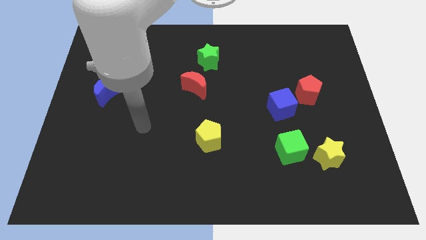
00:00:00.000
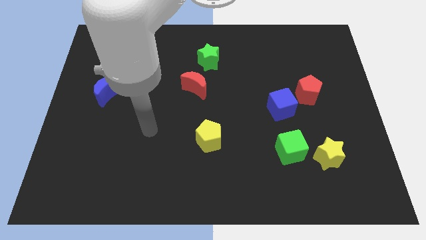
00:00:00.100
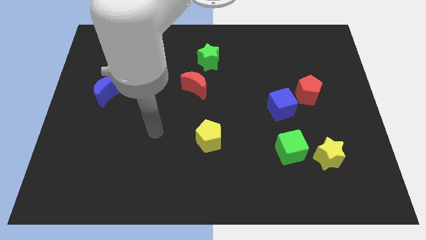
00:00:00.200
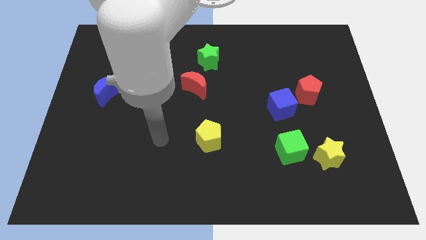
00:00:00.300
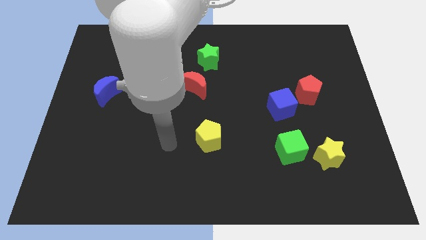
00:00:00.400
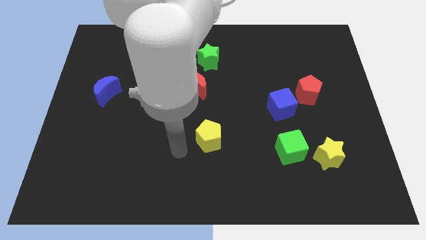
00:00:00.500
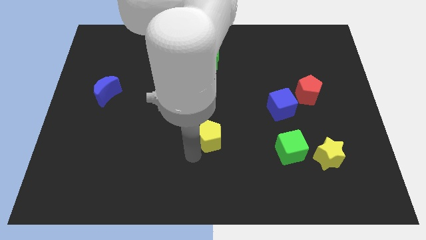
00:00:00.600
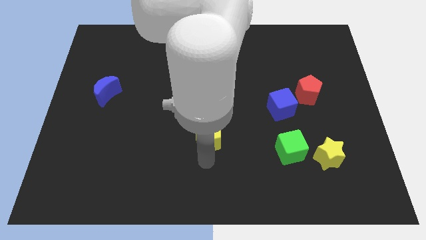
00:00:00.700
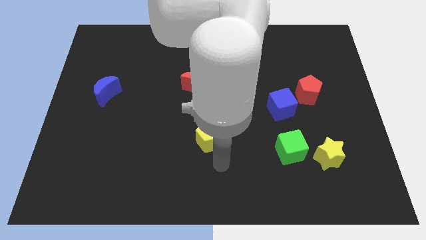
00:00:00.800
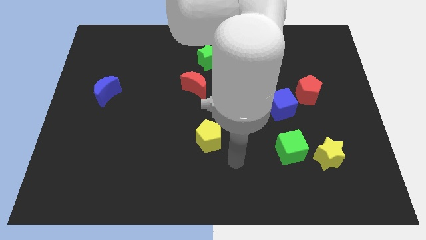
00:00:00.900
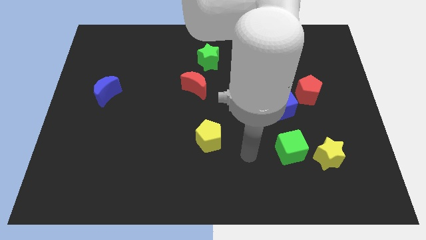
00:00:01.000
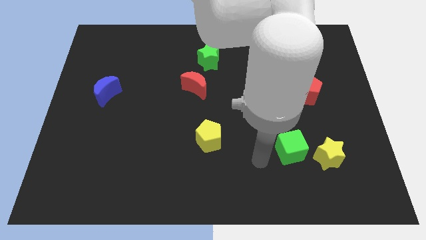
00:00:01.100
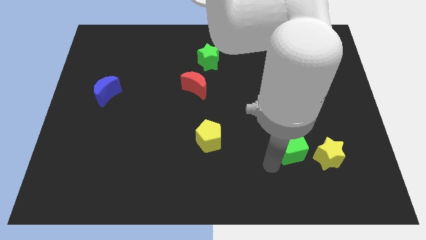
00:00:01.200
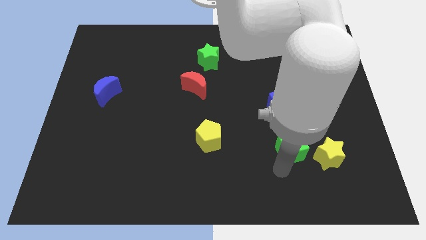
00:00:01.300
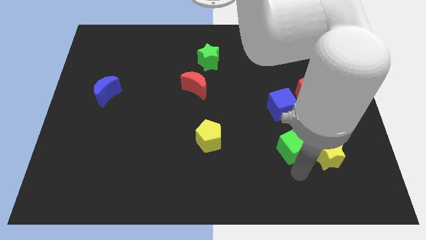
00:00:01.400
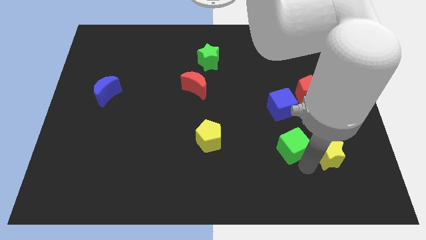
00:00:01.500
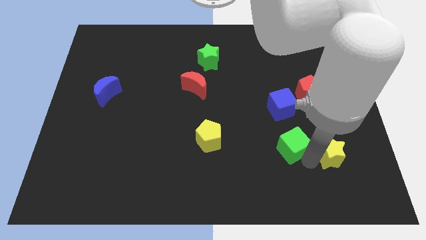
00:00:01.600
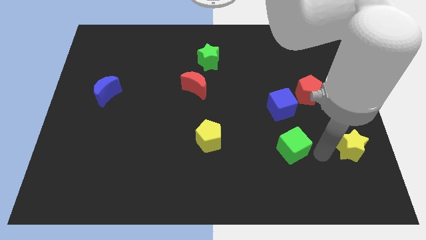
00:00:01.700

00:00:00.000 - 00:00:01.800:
move the green cube away from the yellow star

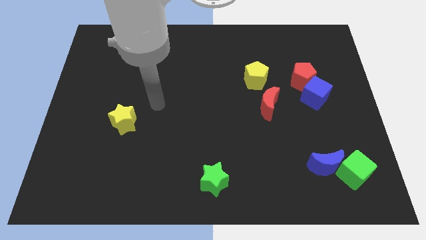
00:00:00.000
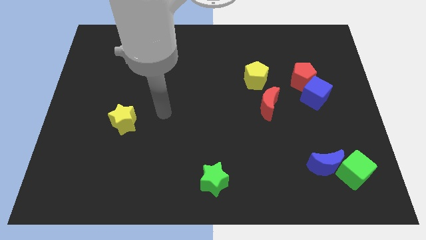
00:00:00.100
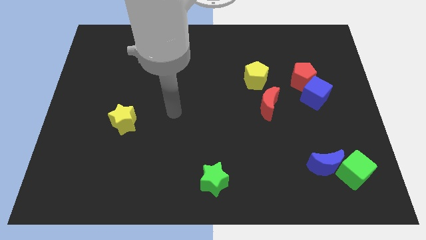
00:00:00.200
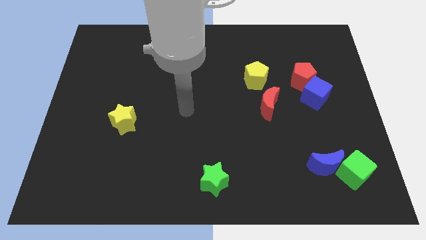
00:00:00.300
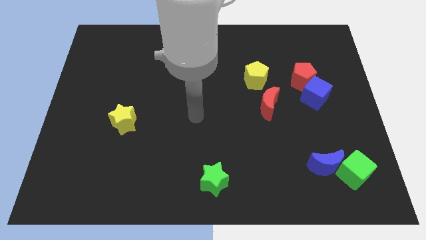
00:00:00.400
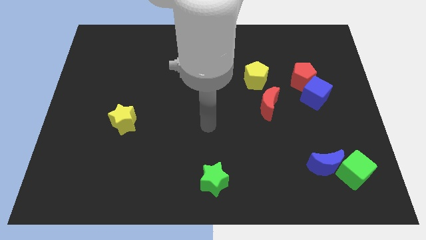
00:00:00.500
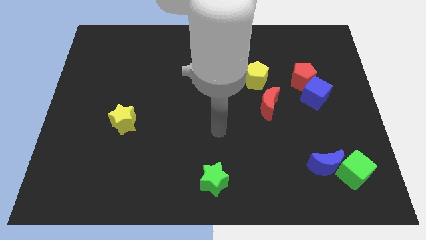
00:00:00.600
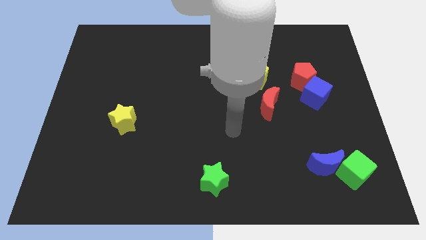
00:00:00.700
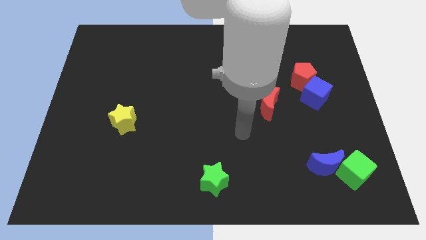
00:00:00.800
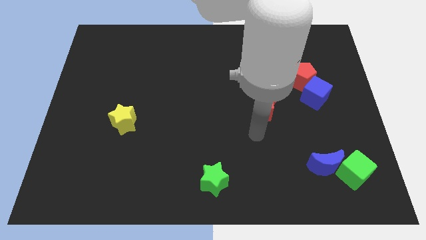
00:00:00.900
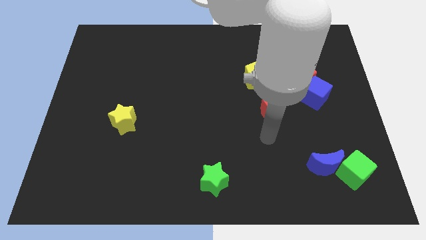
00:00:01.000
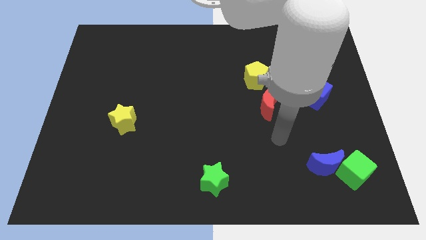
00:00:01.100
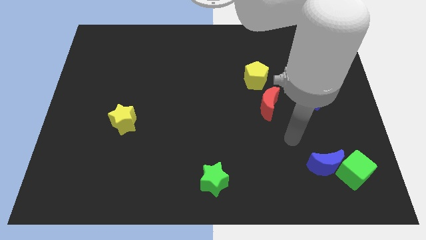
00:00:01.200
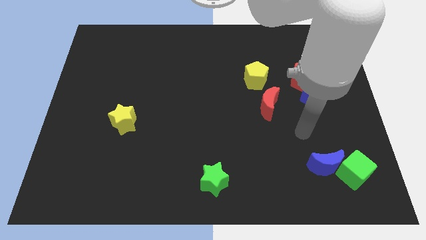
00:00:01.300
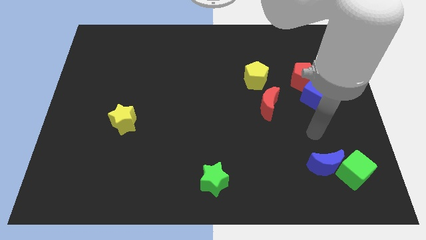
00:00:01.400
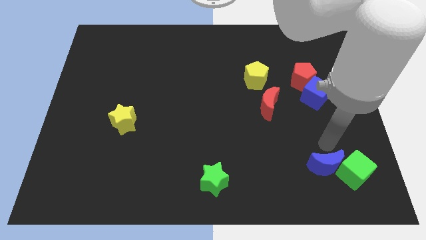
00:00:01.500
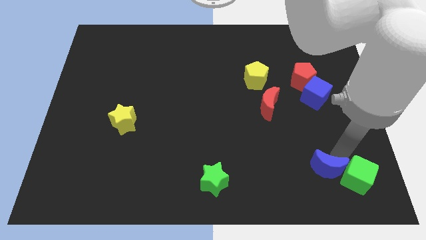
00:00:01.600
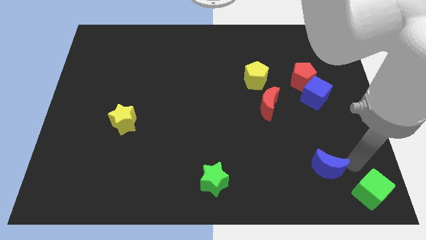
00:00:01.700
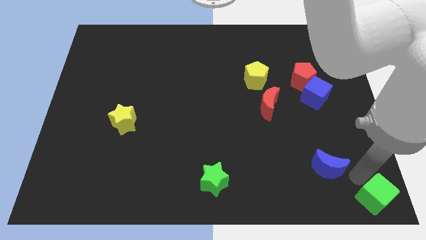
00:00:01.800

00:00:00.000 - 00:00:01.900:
separate the blue moon from the green cube

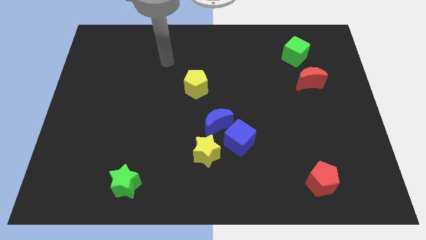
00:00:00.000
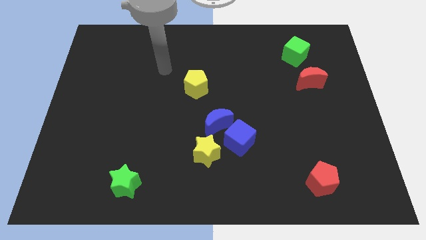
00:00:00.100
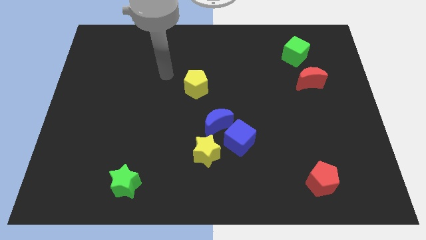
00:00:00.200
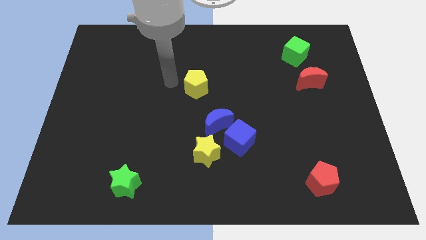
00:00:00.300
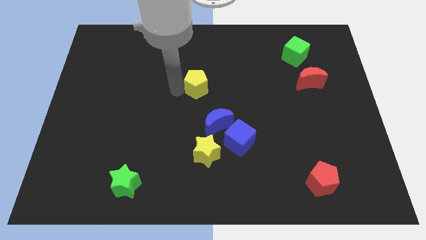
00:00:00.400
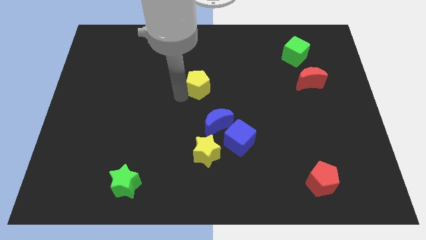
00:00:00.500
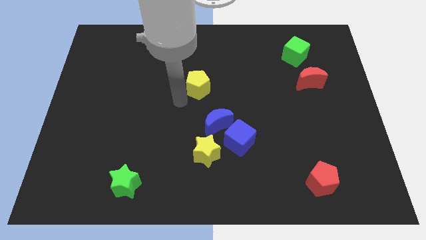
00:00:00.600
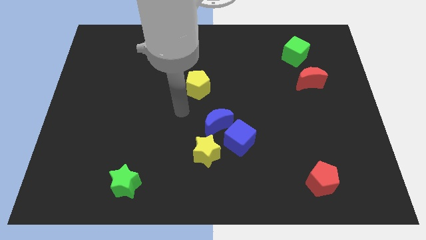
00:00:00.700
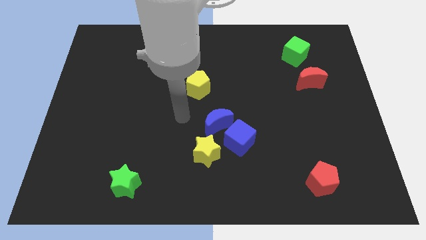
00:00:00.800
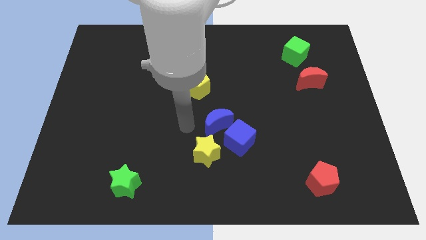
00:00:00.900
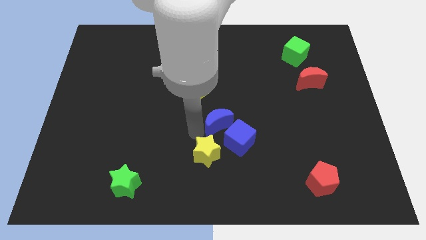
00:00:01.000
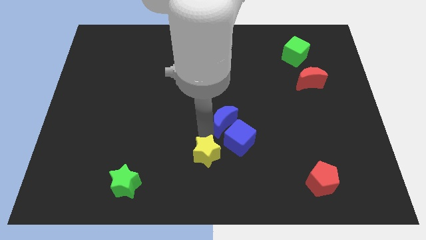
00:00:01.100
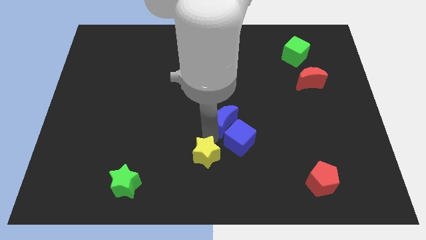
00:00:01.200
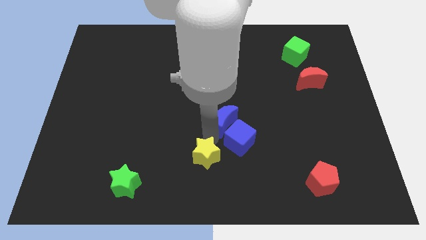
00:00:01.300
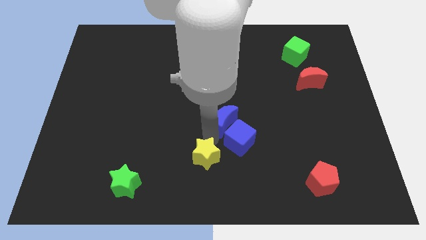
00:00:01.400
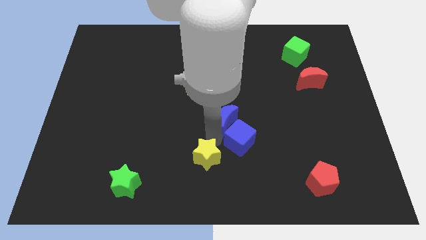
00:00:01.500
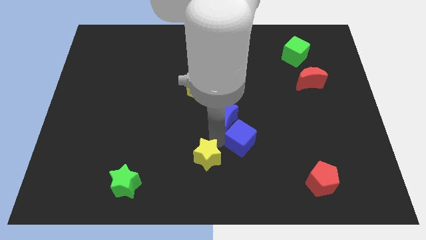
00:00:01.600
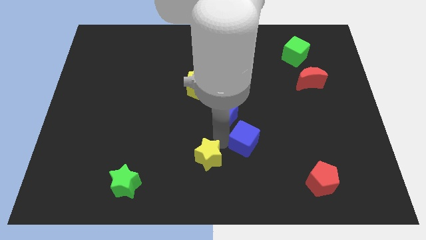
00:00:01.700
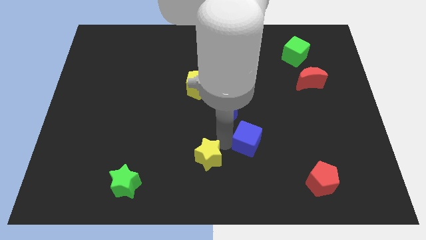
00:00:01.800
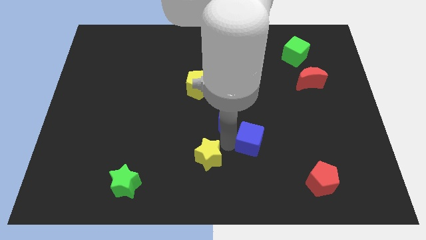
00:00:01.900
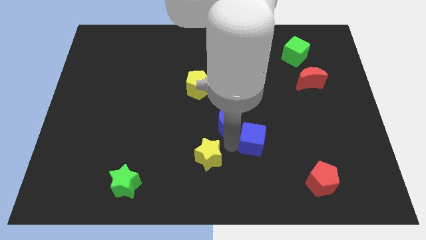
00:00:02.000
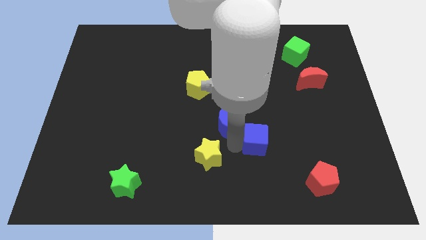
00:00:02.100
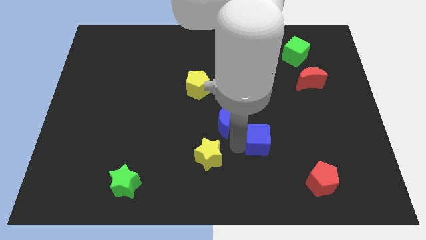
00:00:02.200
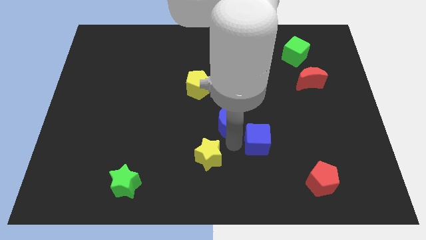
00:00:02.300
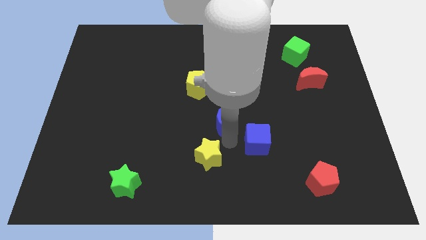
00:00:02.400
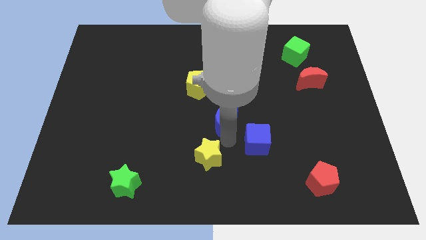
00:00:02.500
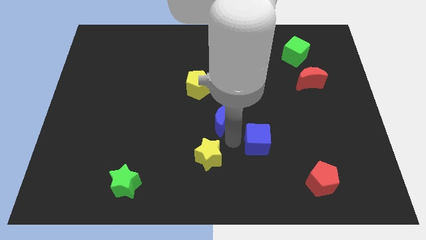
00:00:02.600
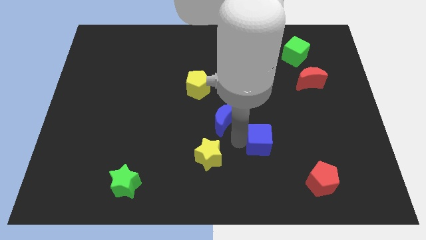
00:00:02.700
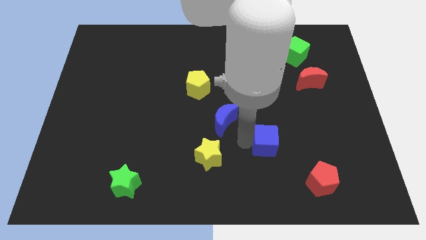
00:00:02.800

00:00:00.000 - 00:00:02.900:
separate the blue cube from the blue moon and yellow star

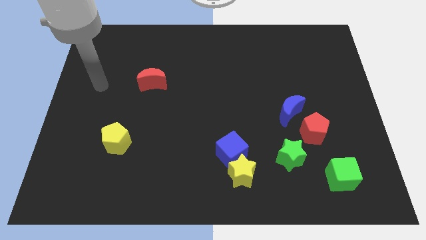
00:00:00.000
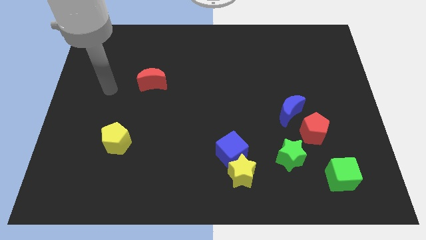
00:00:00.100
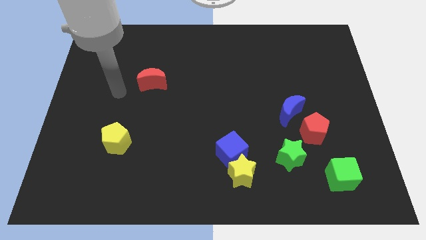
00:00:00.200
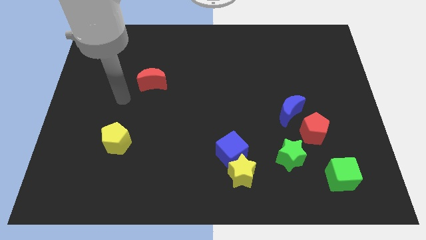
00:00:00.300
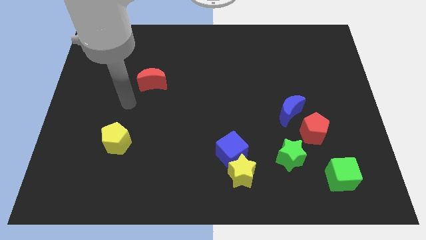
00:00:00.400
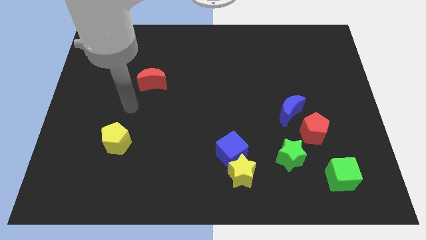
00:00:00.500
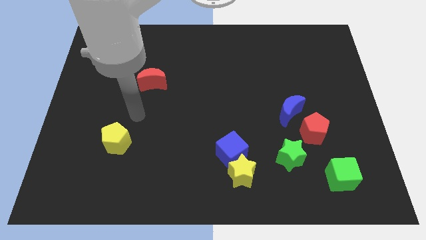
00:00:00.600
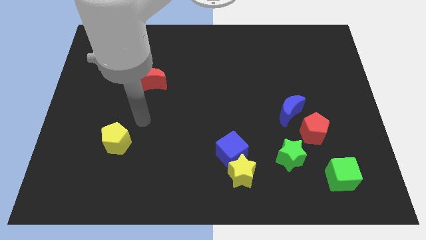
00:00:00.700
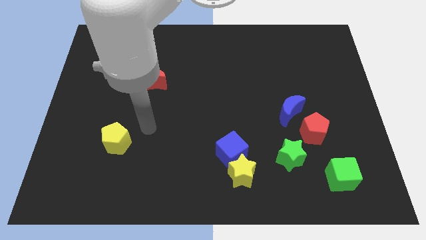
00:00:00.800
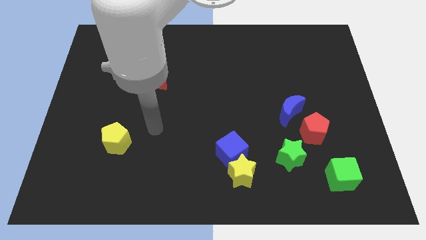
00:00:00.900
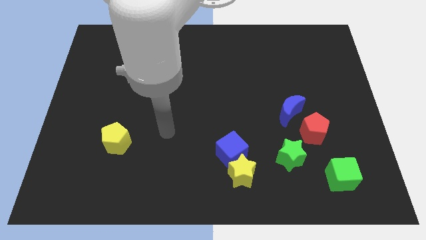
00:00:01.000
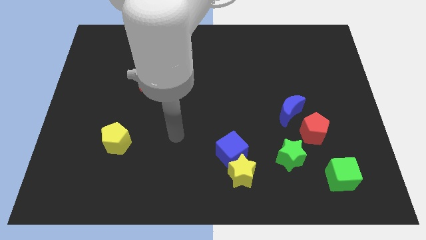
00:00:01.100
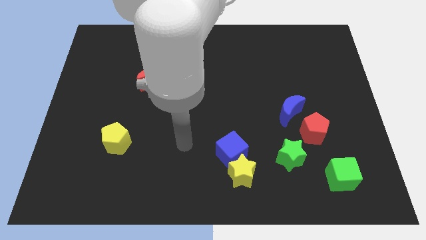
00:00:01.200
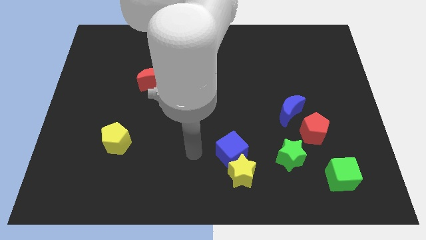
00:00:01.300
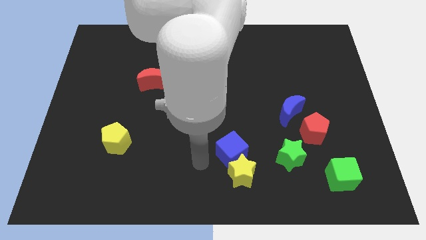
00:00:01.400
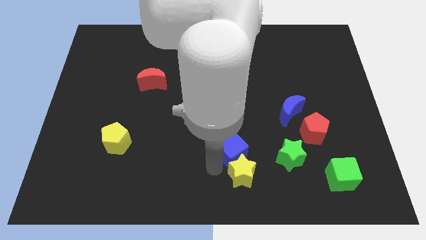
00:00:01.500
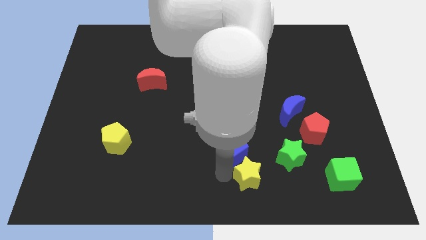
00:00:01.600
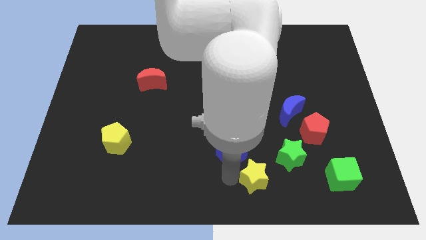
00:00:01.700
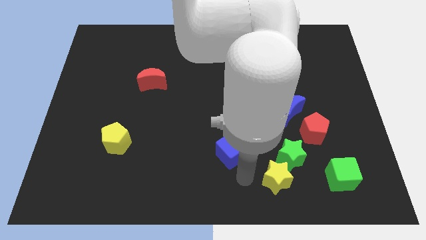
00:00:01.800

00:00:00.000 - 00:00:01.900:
separate the blue cube from the yellow star

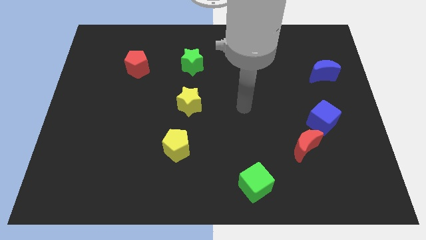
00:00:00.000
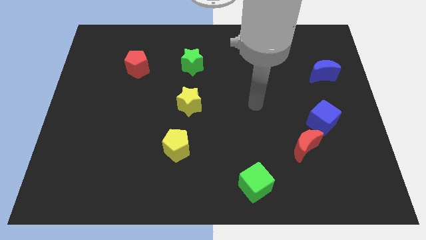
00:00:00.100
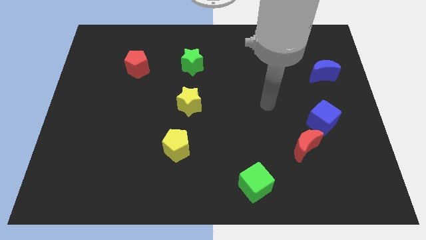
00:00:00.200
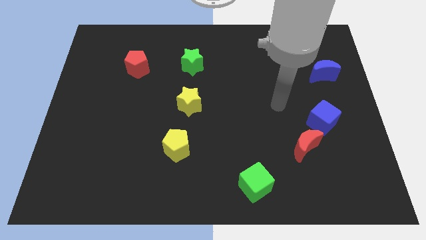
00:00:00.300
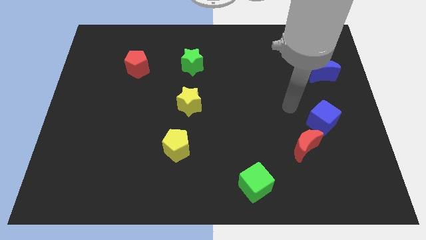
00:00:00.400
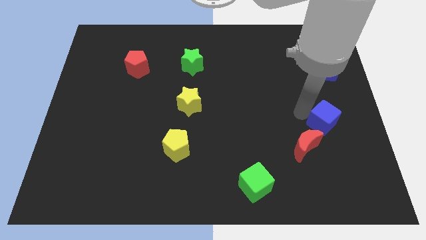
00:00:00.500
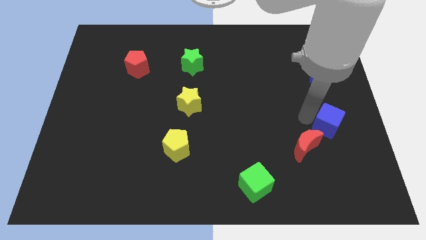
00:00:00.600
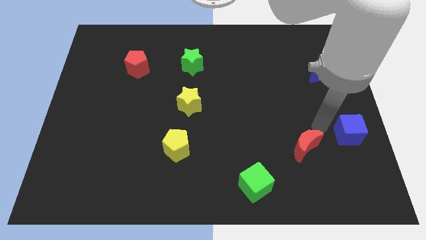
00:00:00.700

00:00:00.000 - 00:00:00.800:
pull the red moon apart from the blue cube

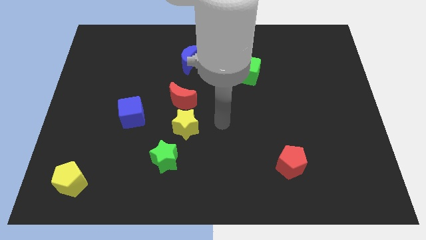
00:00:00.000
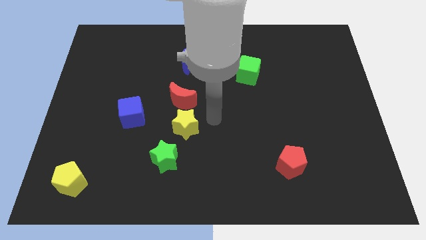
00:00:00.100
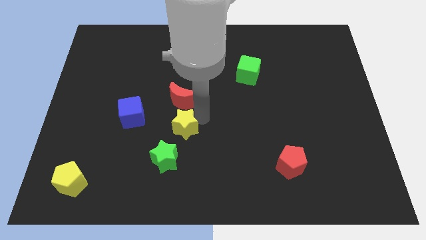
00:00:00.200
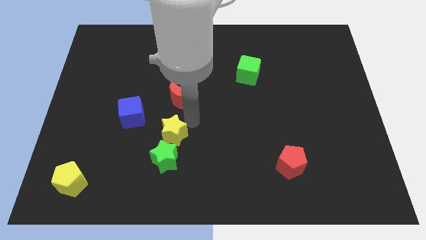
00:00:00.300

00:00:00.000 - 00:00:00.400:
move the red moon away from the yellow star
